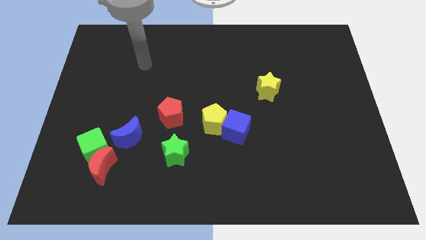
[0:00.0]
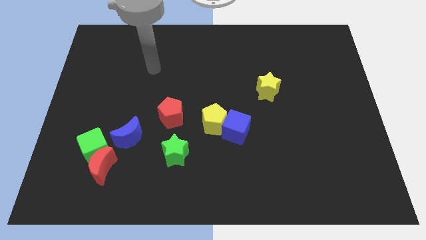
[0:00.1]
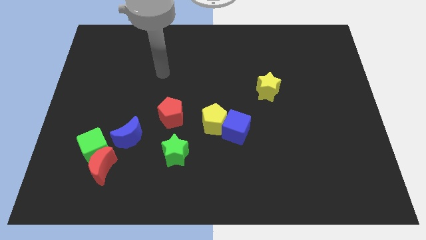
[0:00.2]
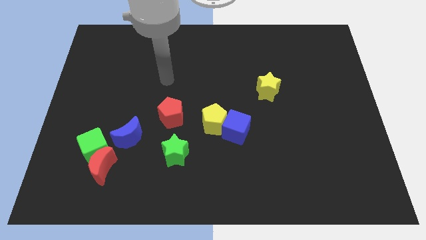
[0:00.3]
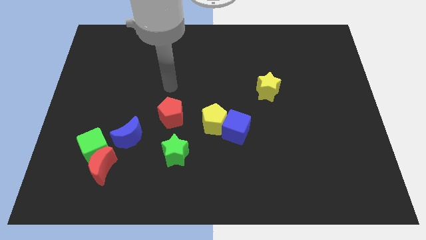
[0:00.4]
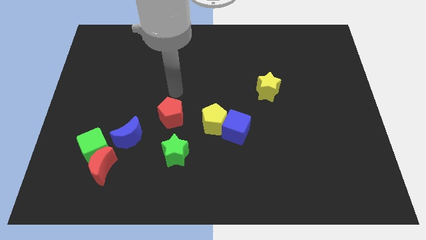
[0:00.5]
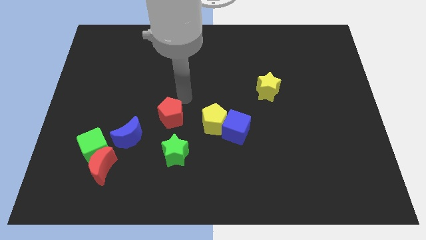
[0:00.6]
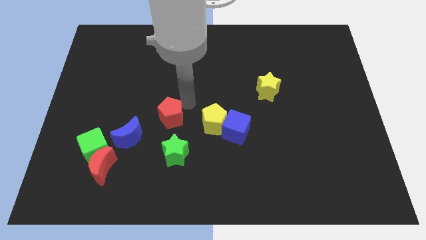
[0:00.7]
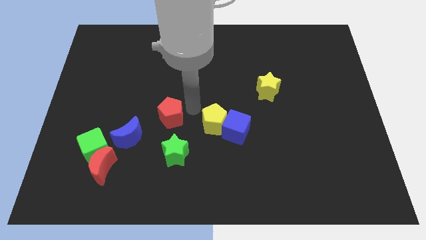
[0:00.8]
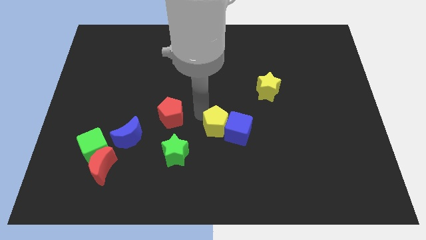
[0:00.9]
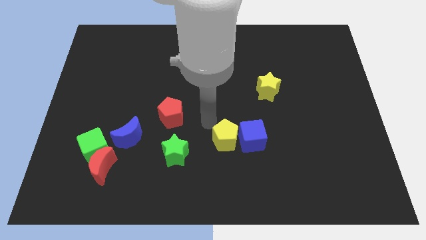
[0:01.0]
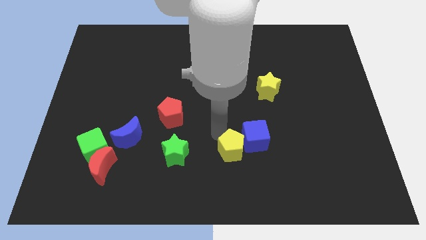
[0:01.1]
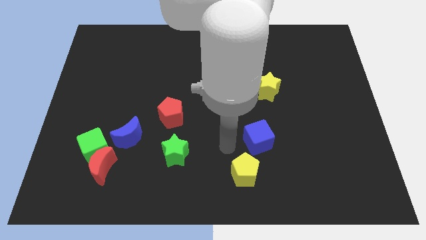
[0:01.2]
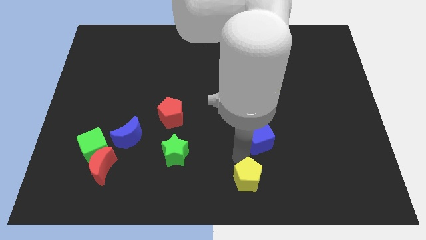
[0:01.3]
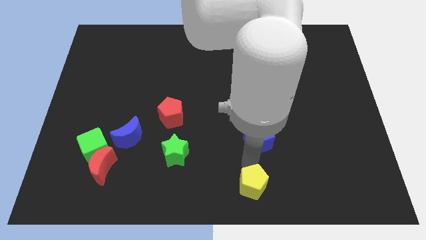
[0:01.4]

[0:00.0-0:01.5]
pull the blue cube apart from the yellow pentagon

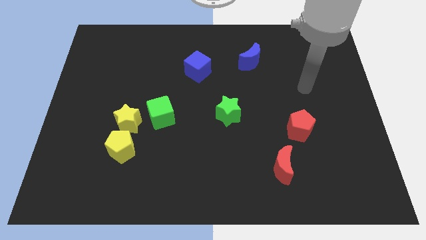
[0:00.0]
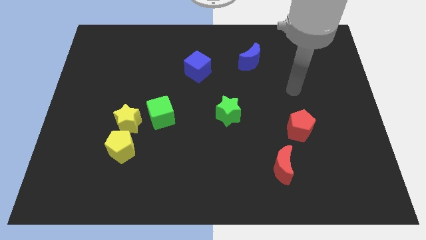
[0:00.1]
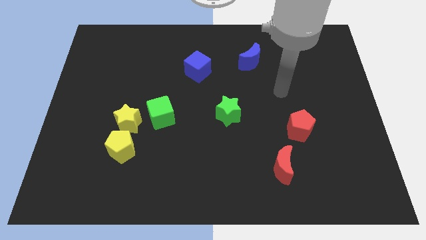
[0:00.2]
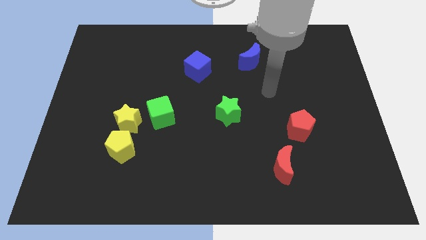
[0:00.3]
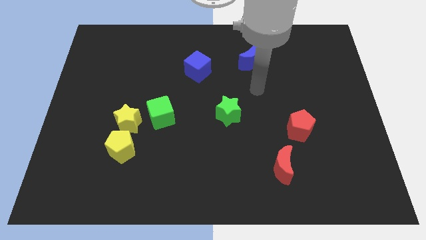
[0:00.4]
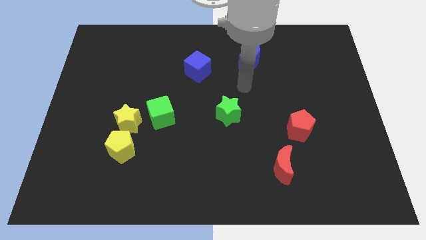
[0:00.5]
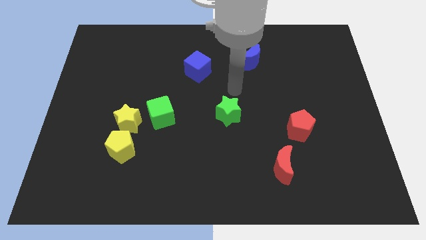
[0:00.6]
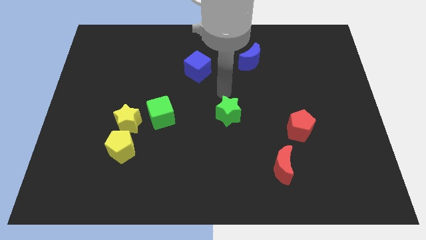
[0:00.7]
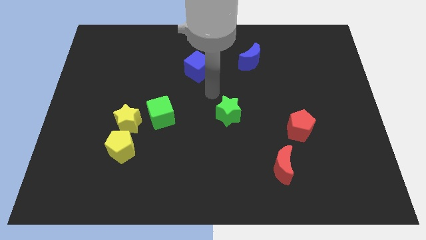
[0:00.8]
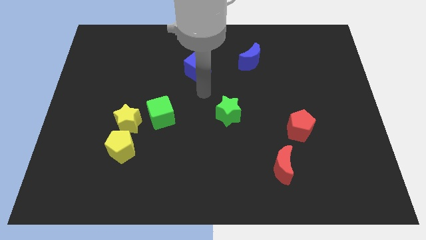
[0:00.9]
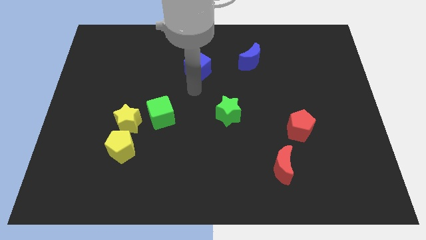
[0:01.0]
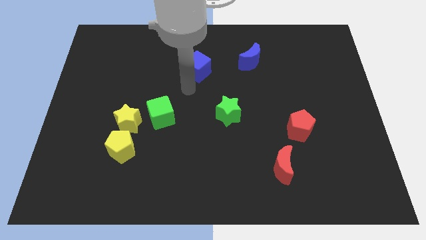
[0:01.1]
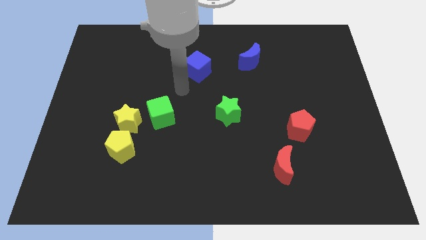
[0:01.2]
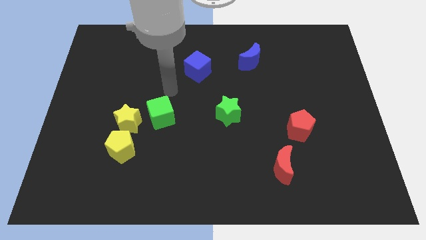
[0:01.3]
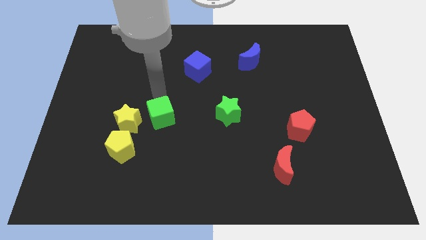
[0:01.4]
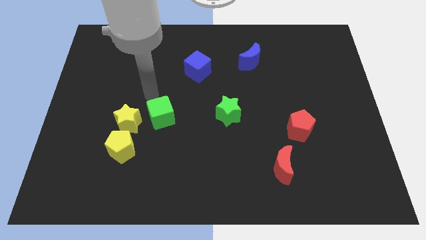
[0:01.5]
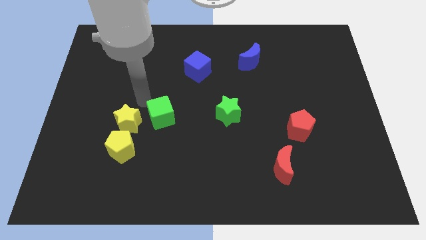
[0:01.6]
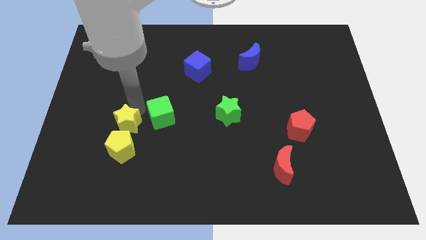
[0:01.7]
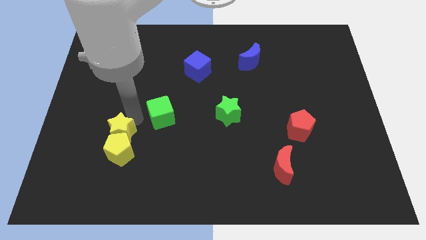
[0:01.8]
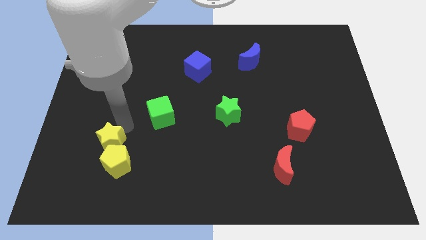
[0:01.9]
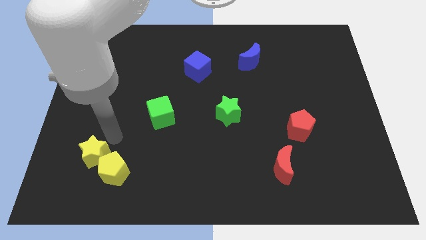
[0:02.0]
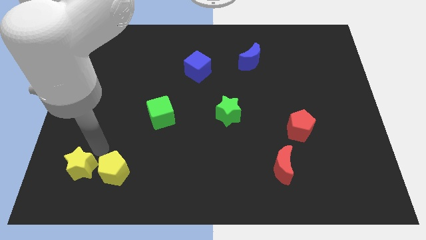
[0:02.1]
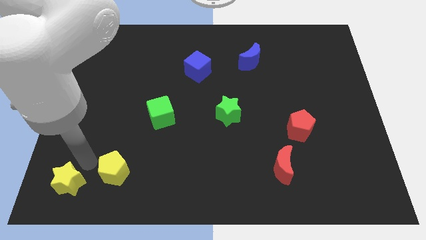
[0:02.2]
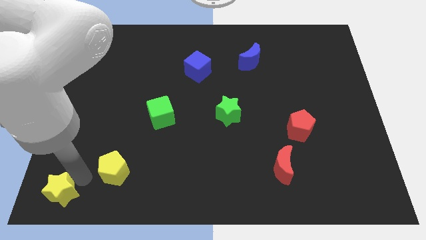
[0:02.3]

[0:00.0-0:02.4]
move the yellow pentagon away from the yellow star

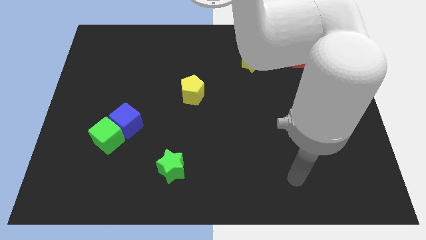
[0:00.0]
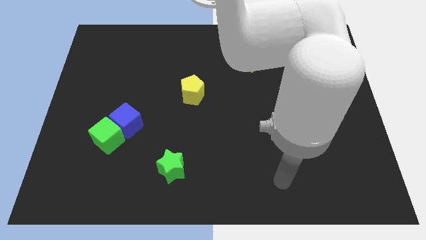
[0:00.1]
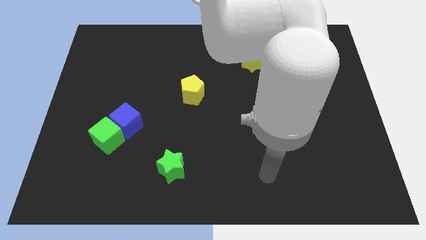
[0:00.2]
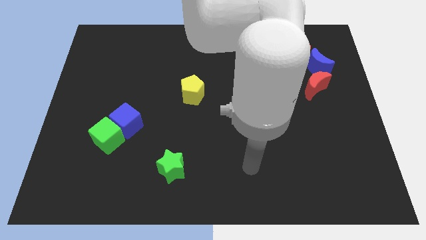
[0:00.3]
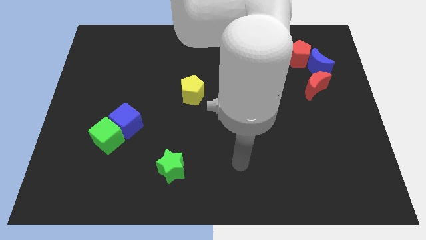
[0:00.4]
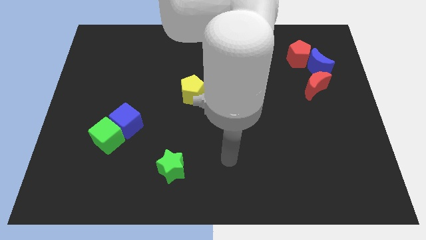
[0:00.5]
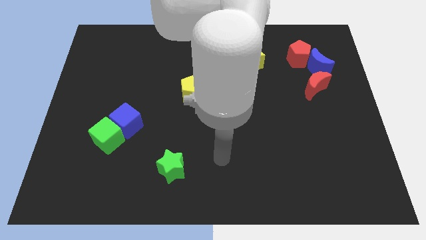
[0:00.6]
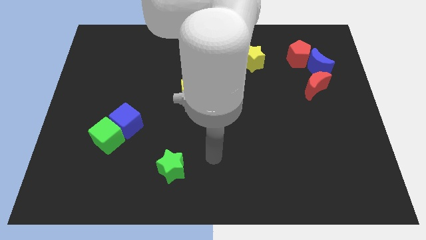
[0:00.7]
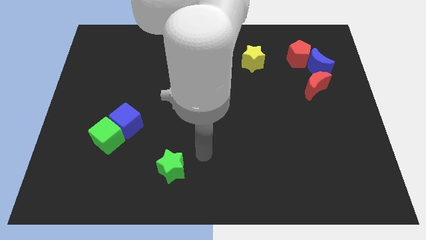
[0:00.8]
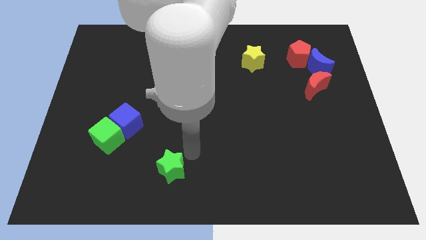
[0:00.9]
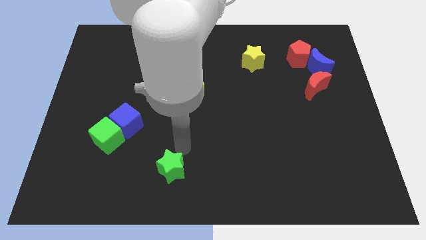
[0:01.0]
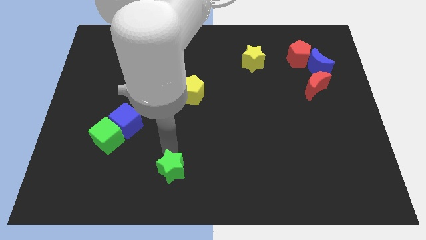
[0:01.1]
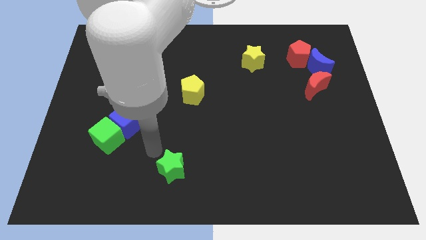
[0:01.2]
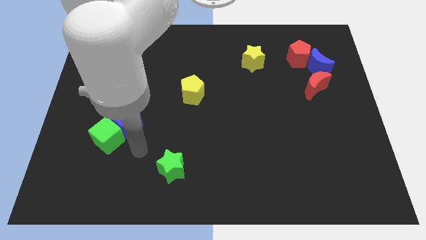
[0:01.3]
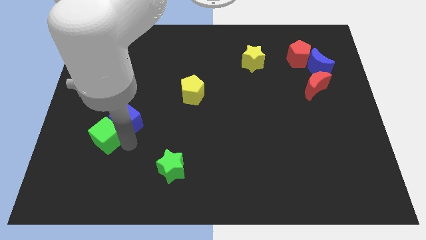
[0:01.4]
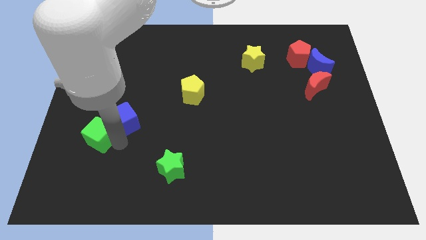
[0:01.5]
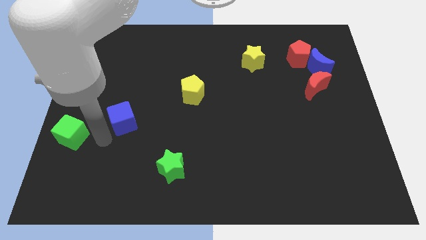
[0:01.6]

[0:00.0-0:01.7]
pull the blue cube apart from the green cube

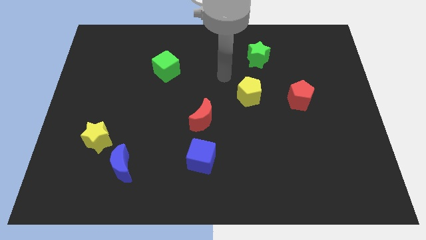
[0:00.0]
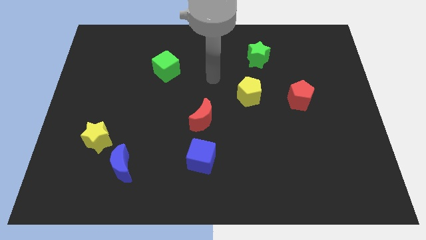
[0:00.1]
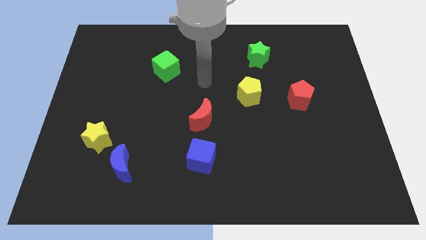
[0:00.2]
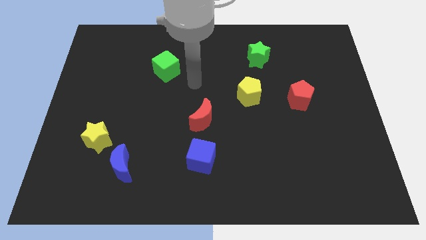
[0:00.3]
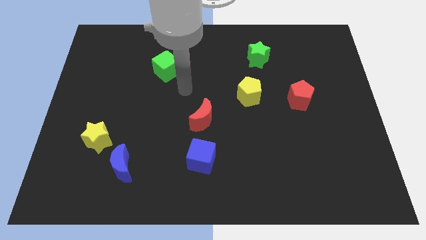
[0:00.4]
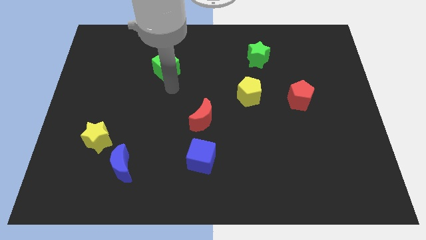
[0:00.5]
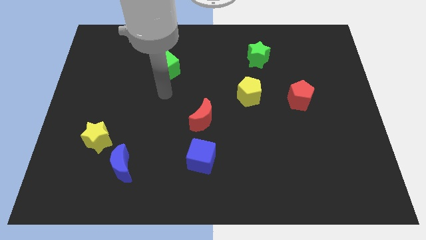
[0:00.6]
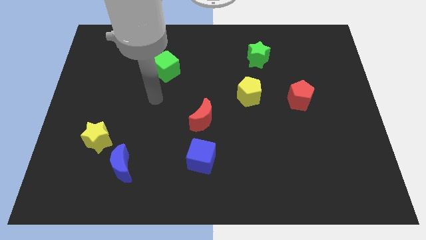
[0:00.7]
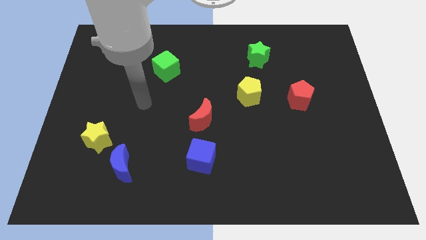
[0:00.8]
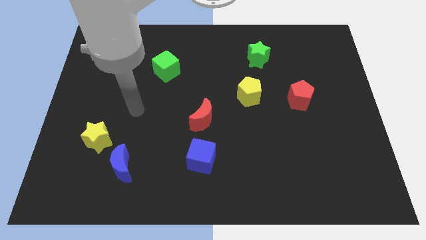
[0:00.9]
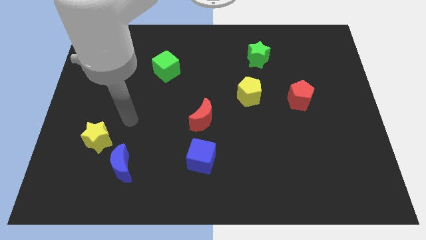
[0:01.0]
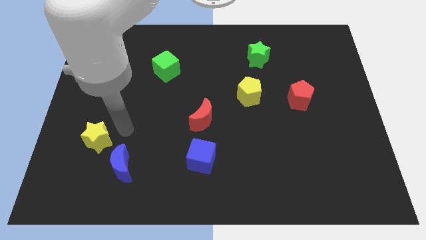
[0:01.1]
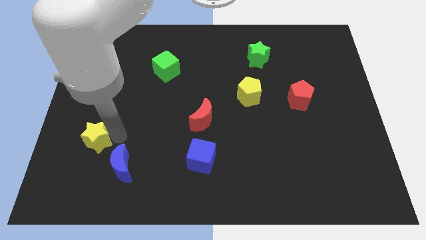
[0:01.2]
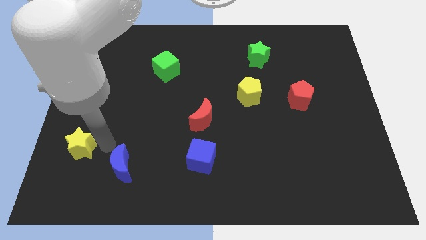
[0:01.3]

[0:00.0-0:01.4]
pull the blue moon apart from the yellow star

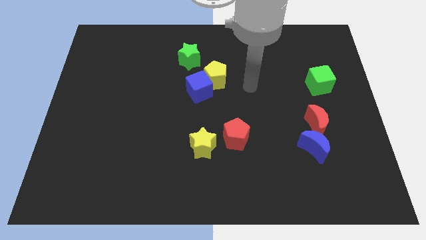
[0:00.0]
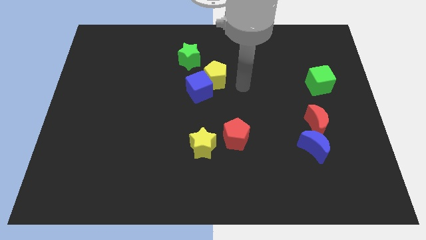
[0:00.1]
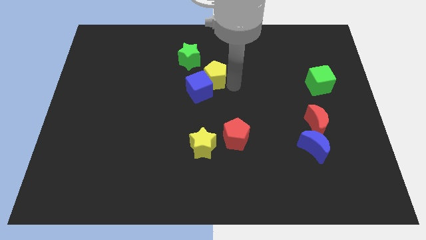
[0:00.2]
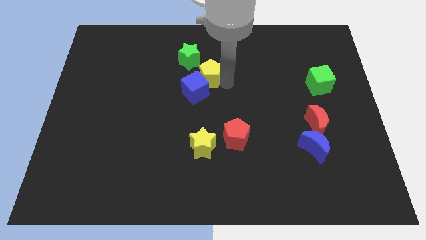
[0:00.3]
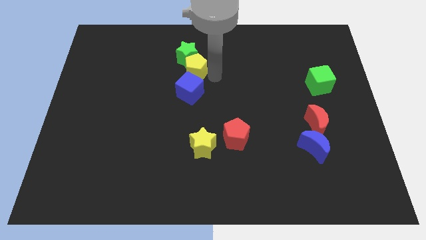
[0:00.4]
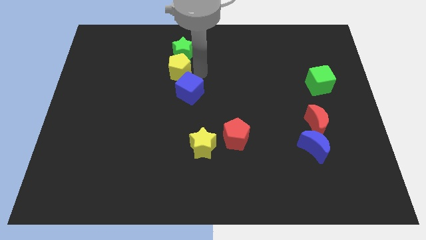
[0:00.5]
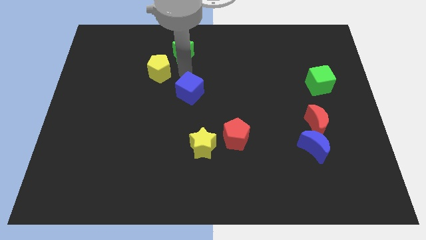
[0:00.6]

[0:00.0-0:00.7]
move the blue cube away from the yellow pentagon

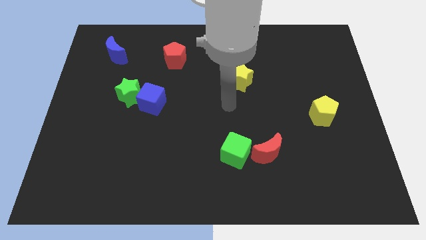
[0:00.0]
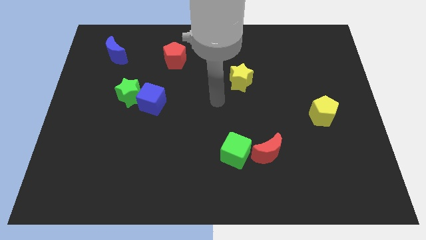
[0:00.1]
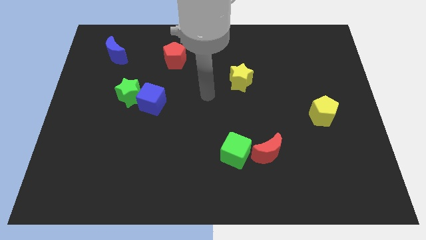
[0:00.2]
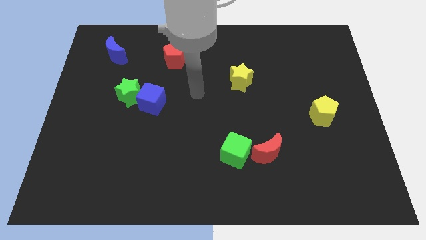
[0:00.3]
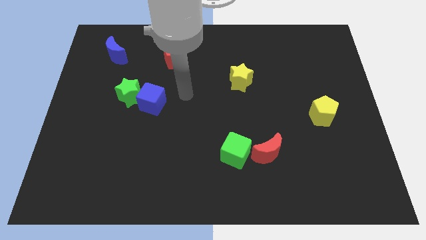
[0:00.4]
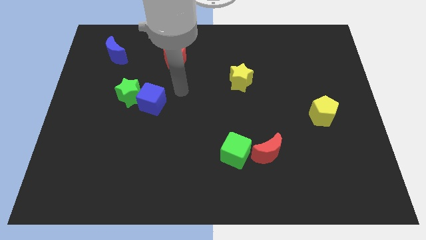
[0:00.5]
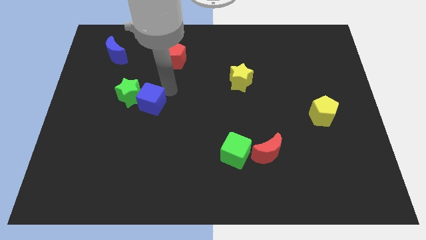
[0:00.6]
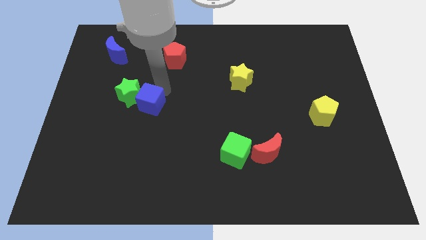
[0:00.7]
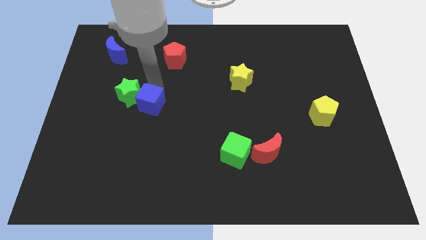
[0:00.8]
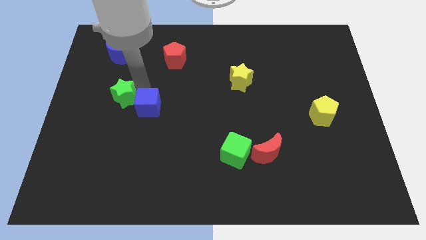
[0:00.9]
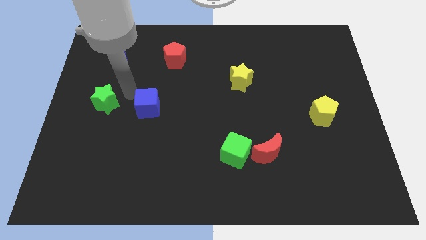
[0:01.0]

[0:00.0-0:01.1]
move the blue cube away from the green star

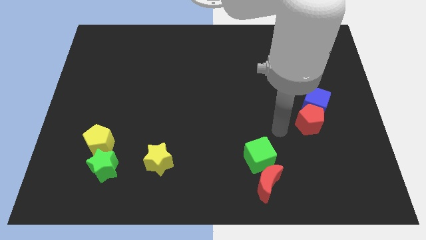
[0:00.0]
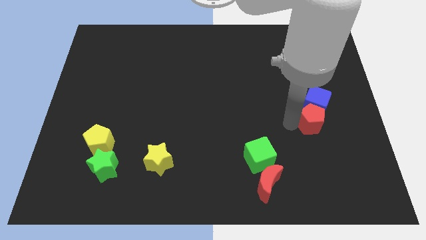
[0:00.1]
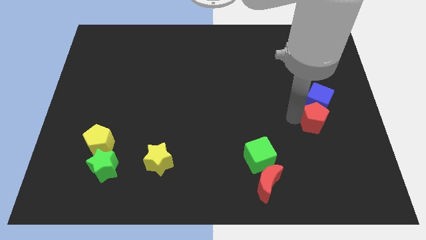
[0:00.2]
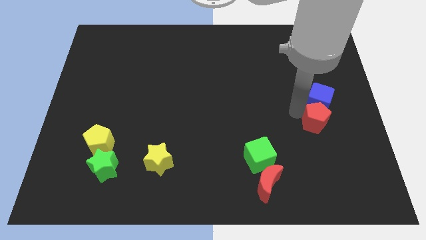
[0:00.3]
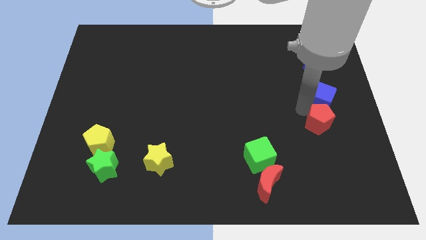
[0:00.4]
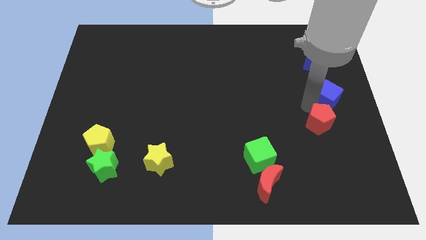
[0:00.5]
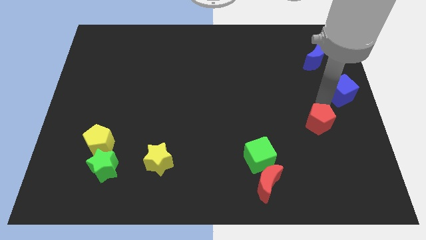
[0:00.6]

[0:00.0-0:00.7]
separate the red pentagon from the blue cube
